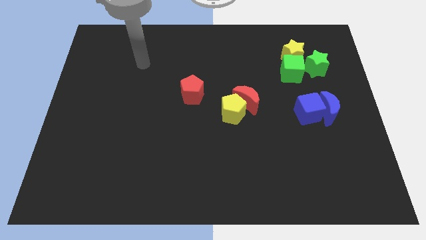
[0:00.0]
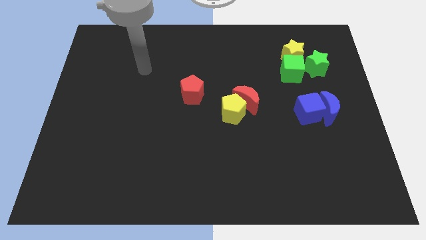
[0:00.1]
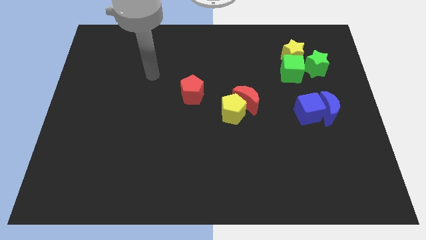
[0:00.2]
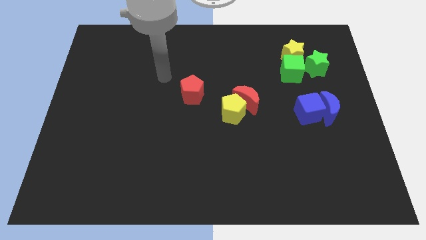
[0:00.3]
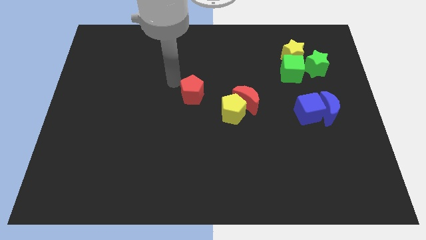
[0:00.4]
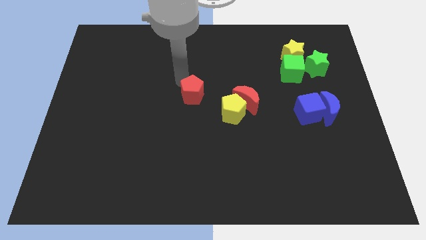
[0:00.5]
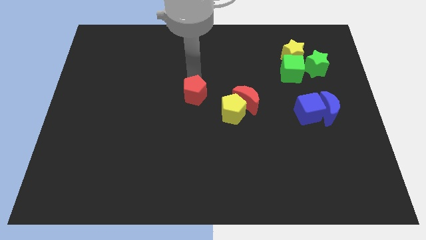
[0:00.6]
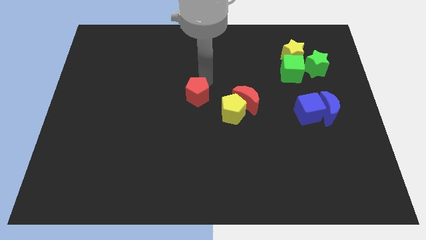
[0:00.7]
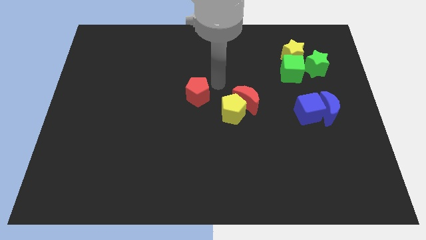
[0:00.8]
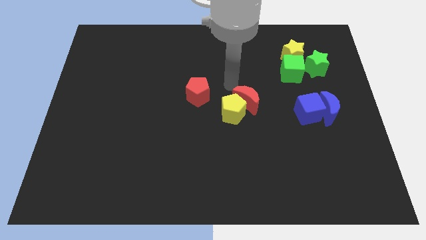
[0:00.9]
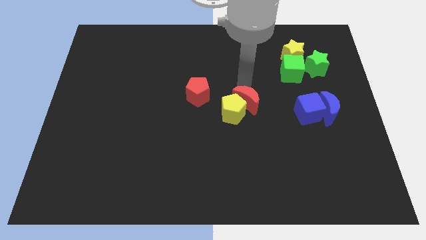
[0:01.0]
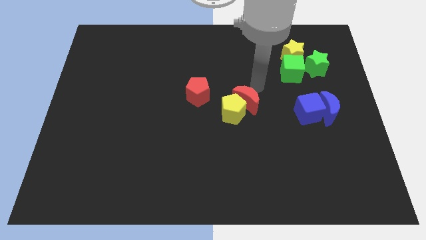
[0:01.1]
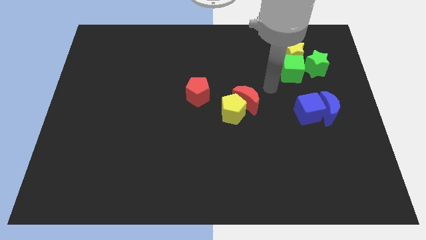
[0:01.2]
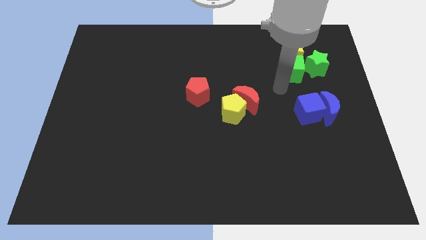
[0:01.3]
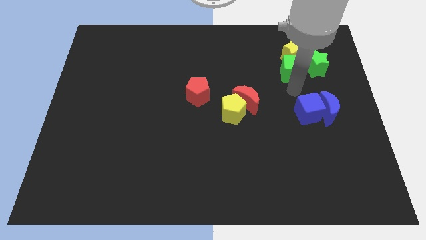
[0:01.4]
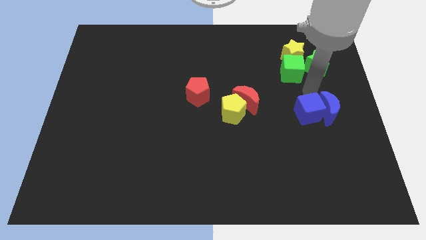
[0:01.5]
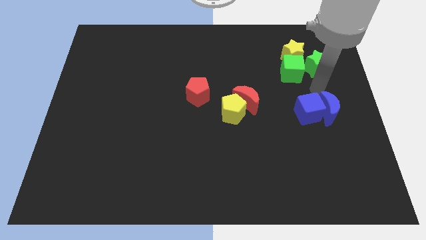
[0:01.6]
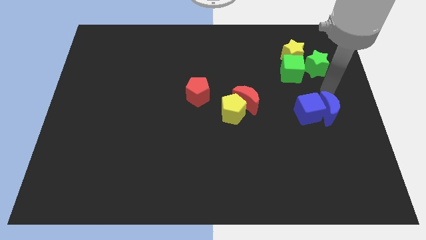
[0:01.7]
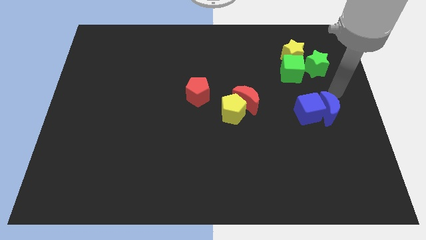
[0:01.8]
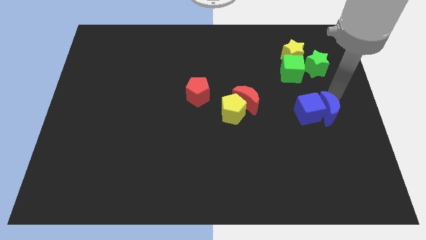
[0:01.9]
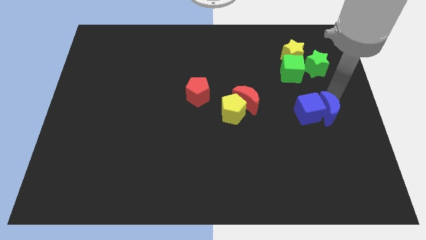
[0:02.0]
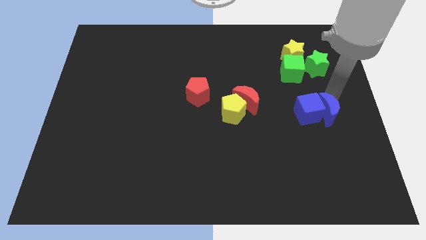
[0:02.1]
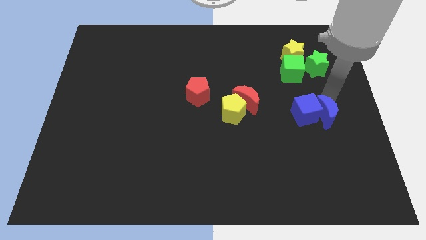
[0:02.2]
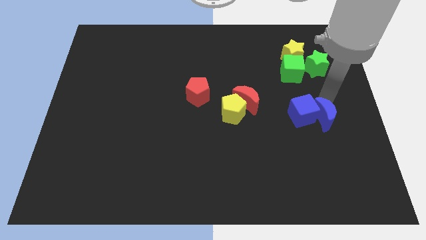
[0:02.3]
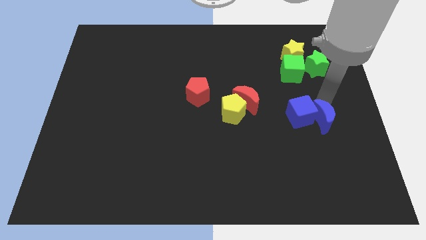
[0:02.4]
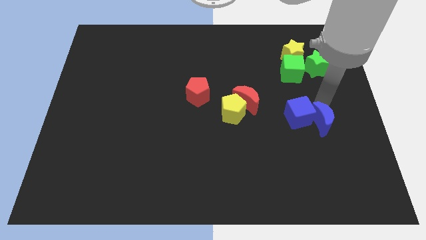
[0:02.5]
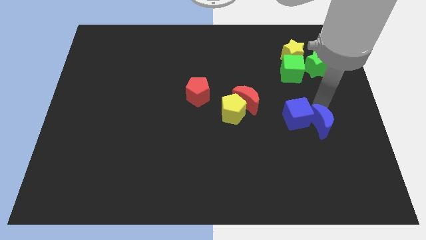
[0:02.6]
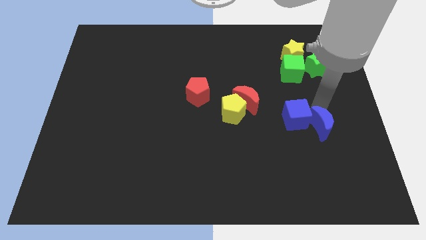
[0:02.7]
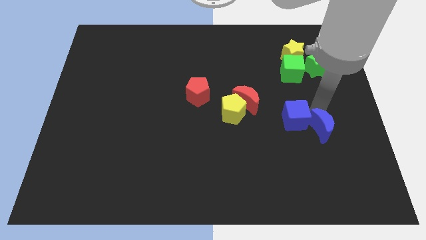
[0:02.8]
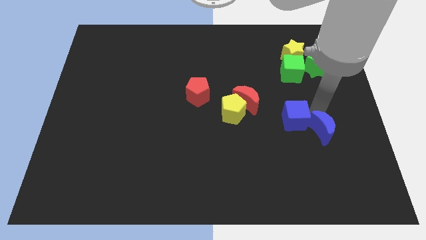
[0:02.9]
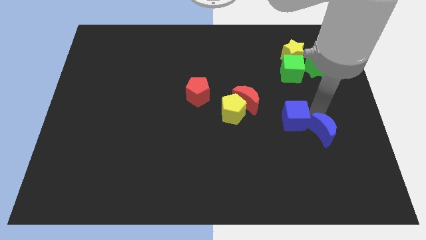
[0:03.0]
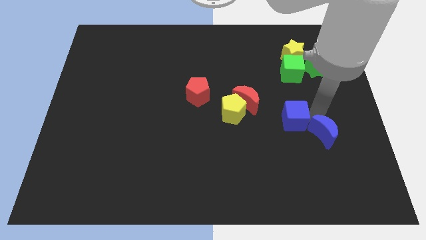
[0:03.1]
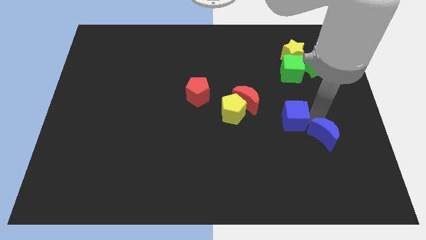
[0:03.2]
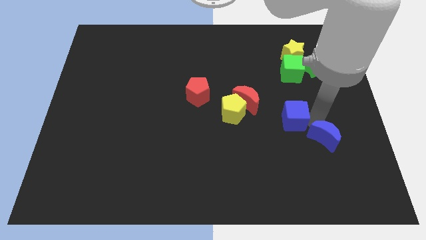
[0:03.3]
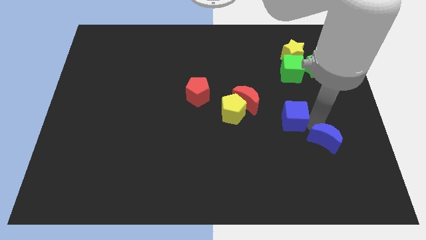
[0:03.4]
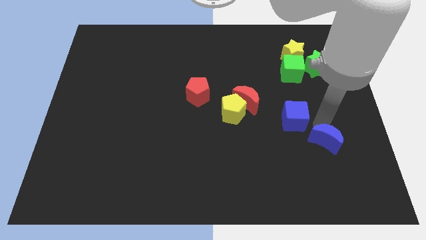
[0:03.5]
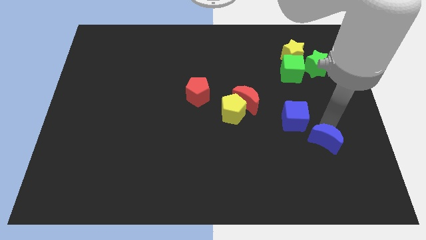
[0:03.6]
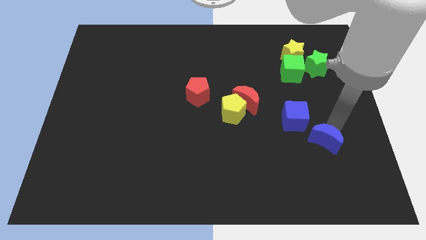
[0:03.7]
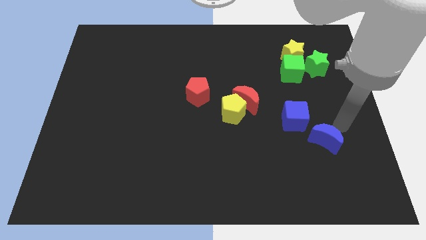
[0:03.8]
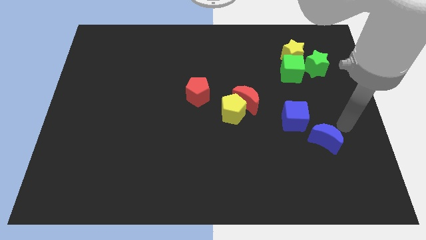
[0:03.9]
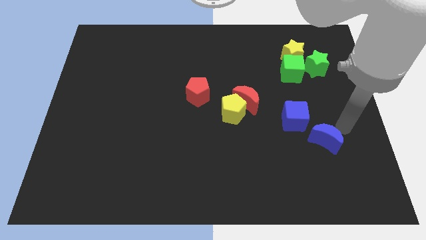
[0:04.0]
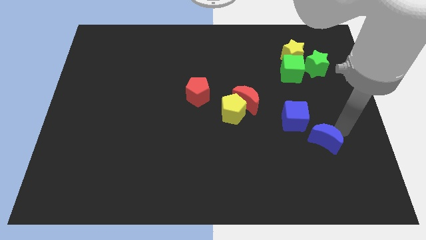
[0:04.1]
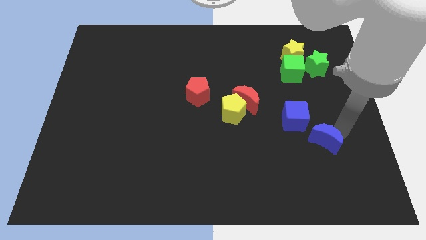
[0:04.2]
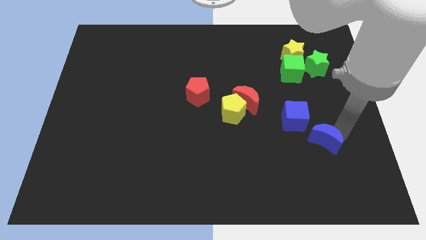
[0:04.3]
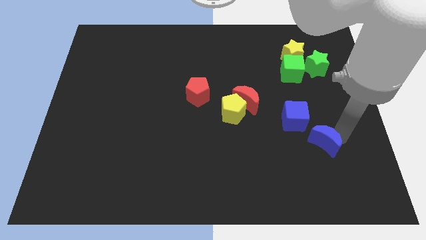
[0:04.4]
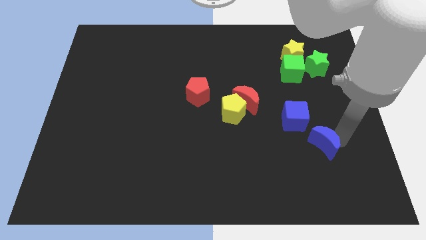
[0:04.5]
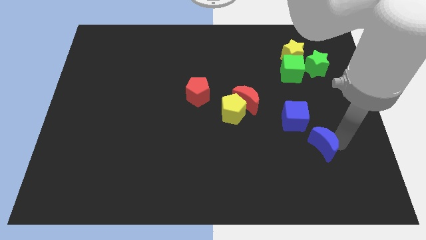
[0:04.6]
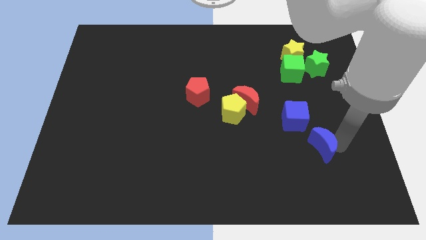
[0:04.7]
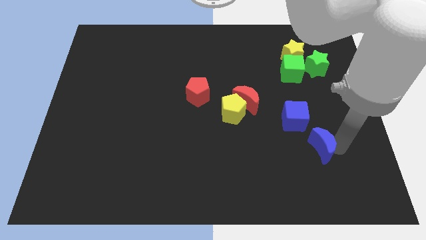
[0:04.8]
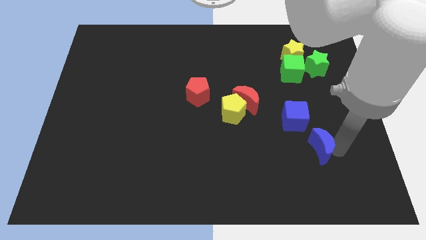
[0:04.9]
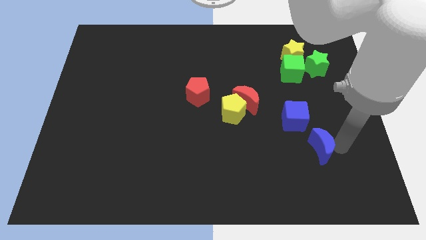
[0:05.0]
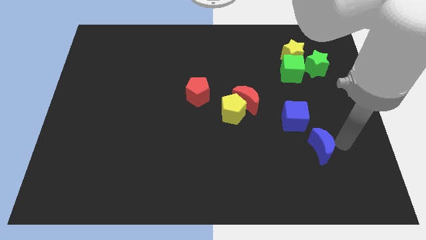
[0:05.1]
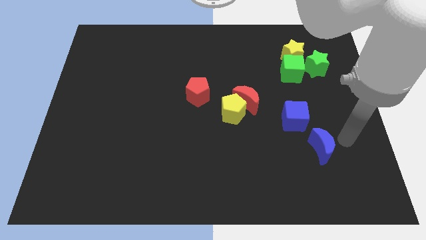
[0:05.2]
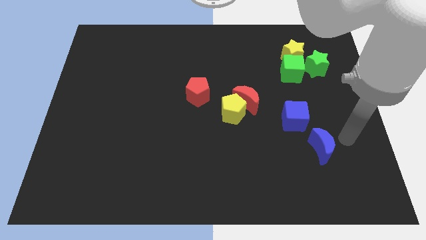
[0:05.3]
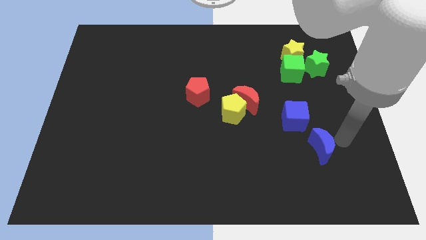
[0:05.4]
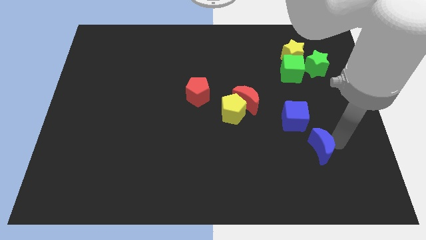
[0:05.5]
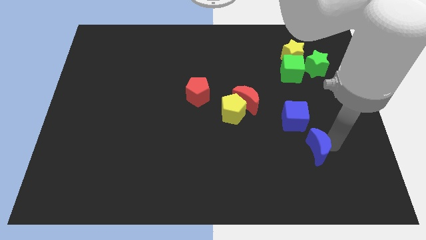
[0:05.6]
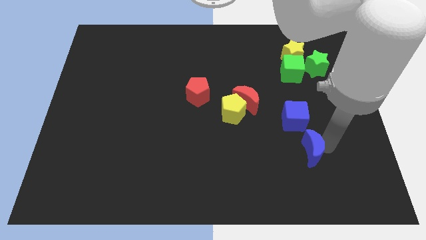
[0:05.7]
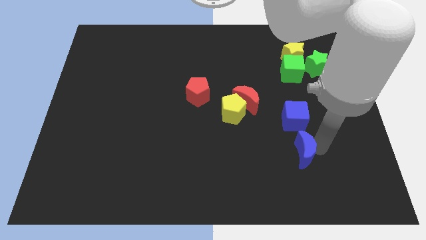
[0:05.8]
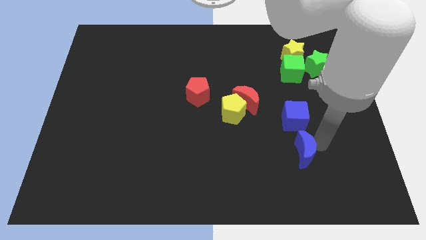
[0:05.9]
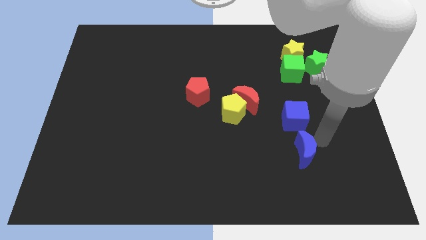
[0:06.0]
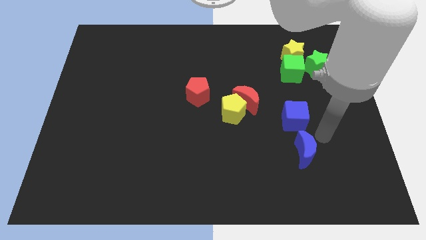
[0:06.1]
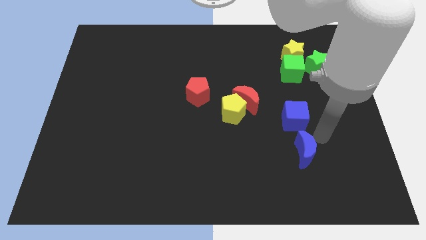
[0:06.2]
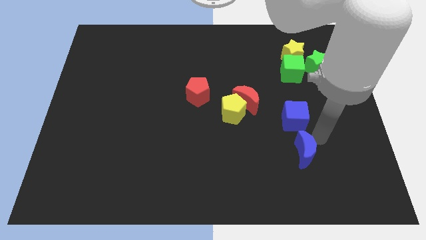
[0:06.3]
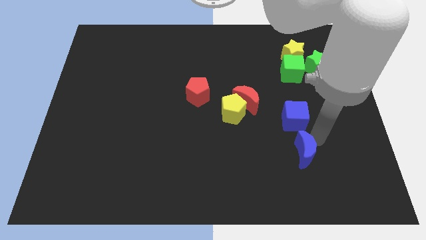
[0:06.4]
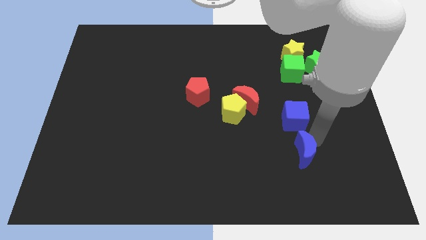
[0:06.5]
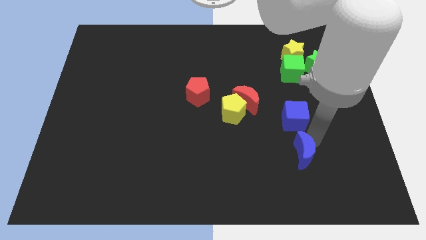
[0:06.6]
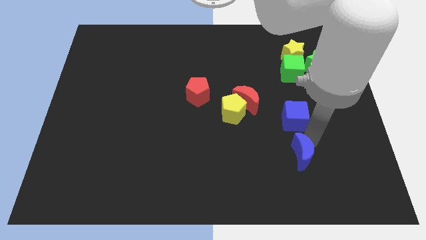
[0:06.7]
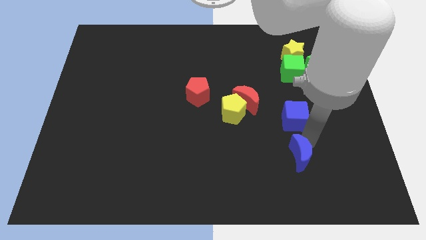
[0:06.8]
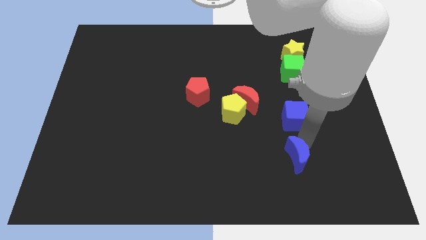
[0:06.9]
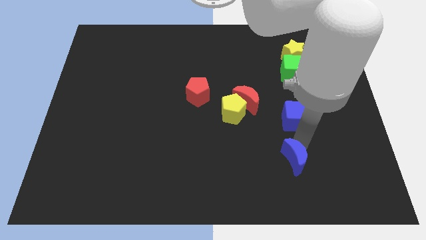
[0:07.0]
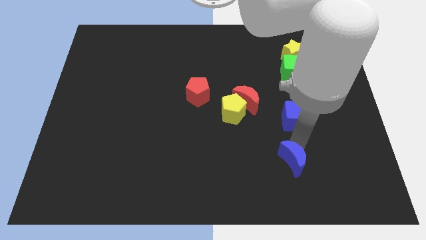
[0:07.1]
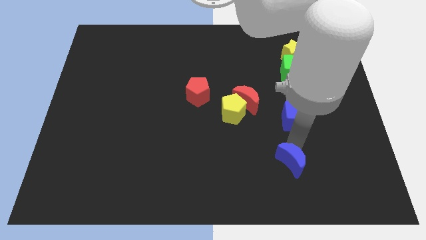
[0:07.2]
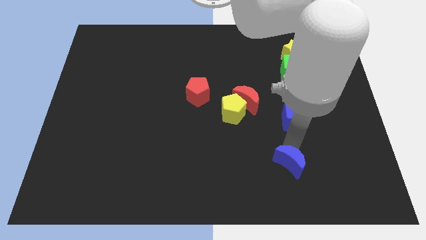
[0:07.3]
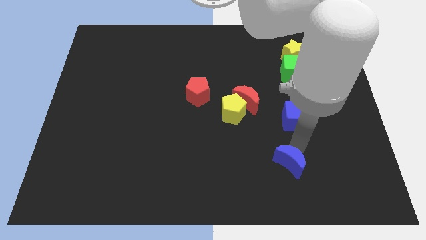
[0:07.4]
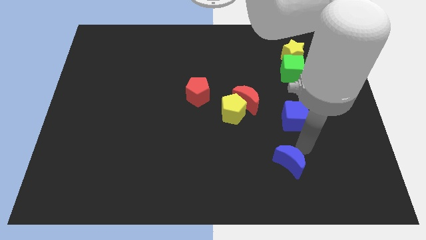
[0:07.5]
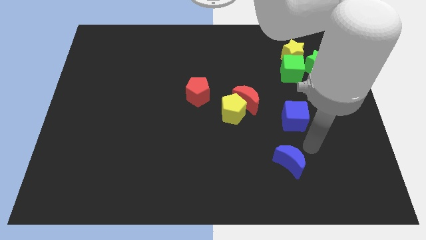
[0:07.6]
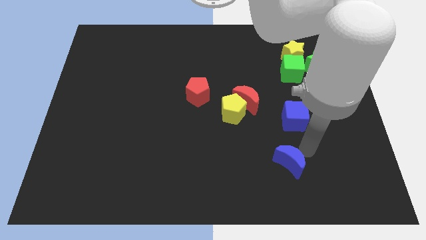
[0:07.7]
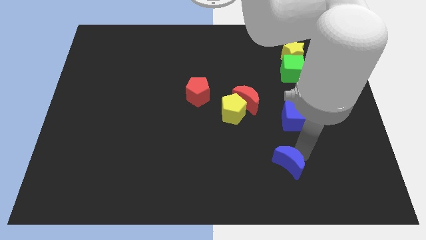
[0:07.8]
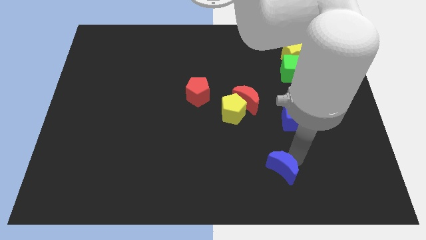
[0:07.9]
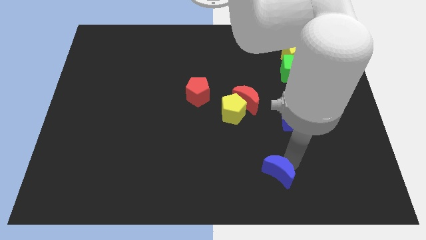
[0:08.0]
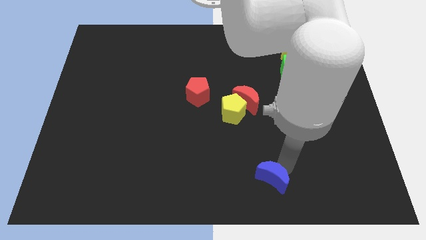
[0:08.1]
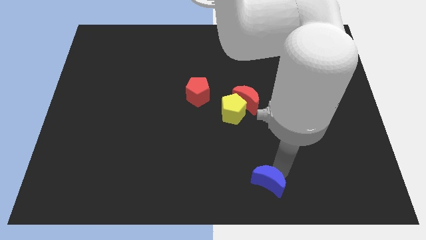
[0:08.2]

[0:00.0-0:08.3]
put the blue moon to the bottom side
